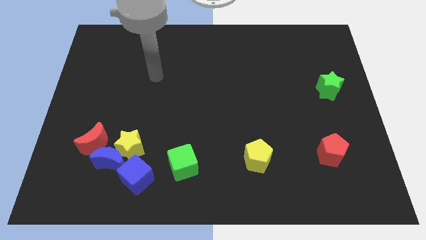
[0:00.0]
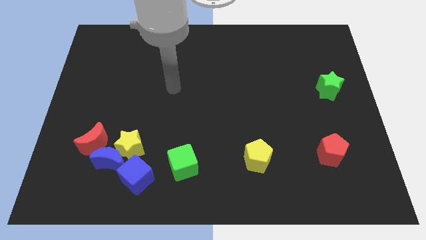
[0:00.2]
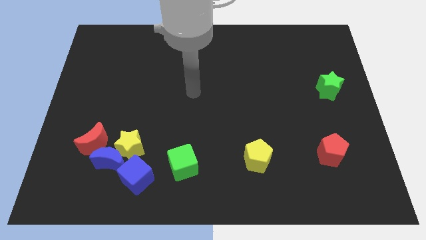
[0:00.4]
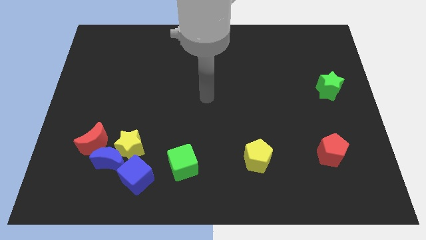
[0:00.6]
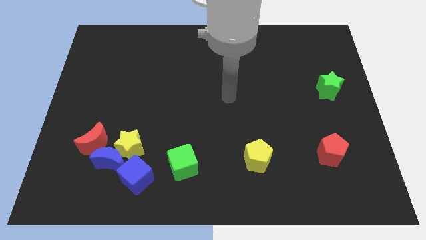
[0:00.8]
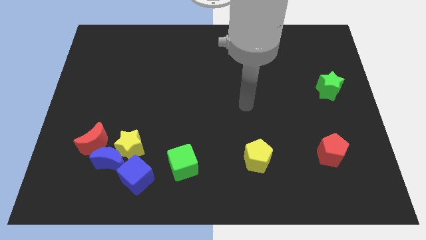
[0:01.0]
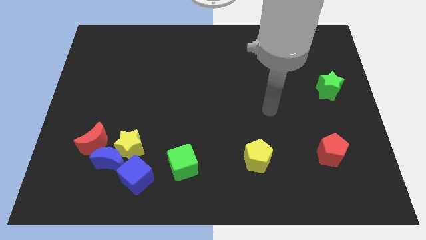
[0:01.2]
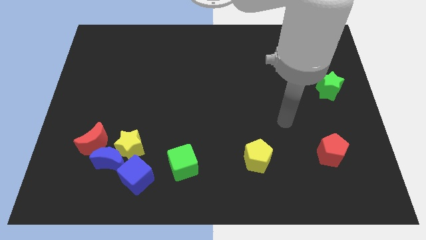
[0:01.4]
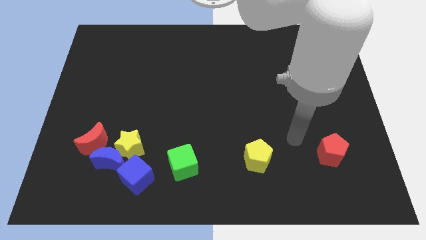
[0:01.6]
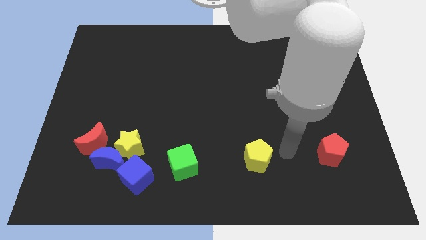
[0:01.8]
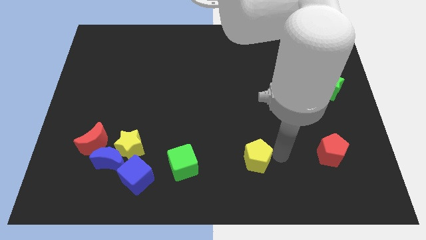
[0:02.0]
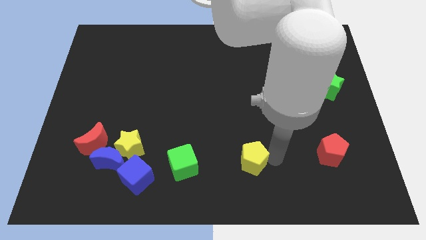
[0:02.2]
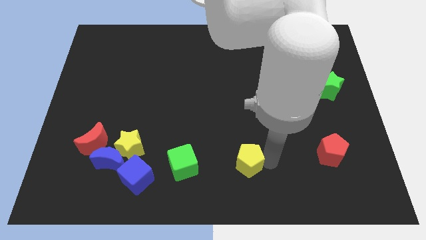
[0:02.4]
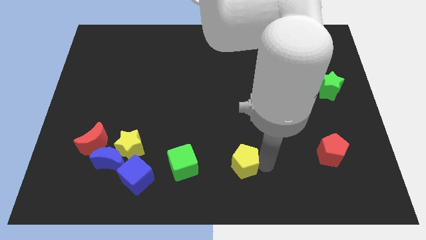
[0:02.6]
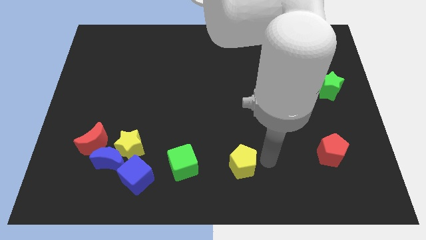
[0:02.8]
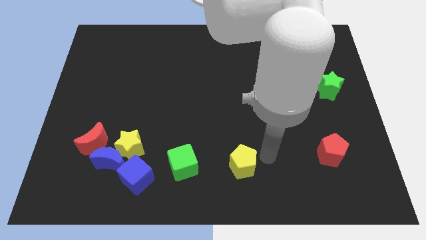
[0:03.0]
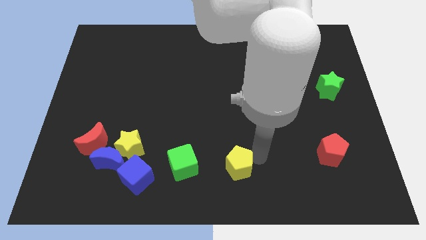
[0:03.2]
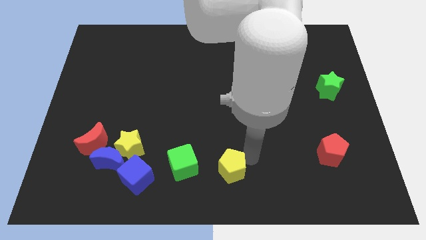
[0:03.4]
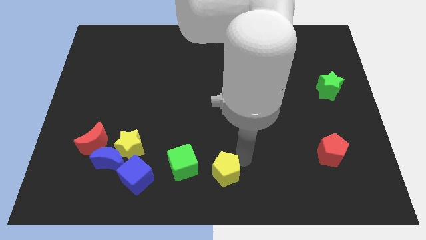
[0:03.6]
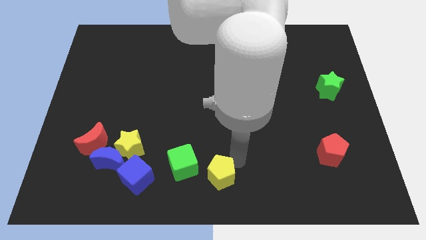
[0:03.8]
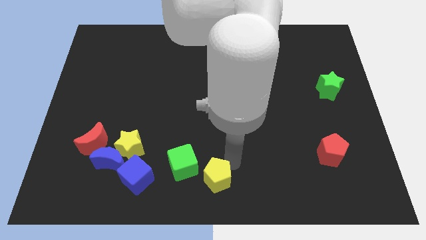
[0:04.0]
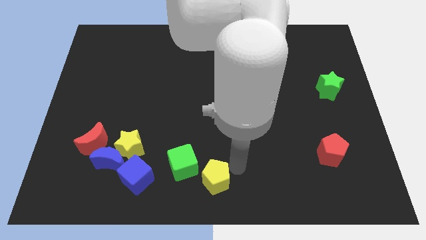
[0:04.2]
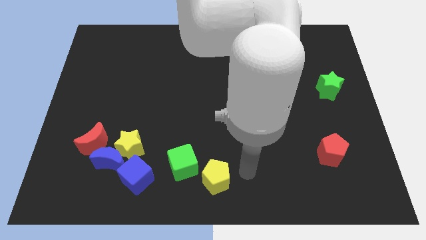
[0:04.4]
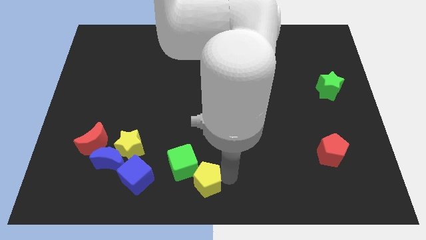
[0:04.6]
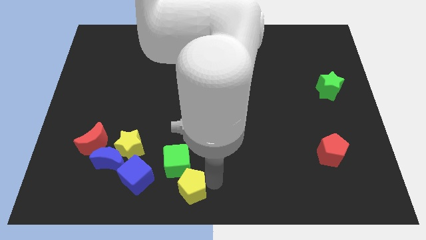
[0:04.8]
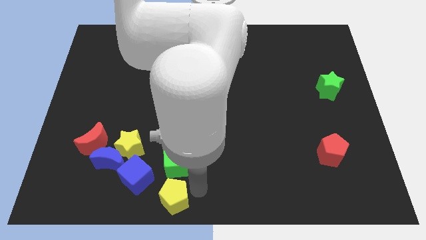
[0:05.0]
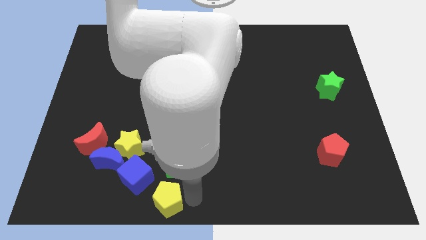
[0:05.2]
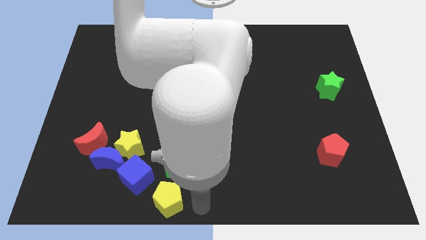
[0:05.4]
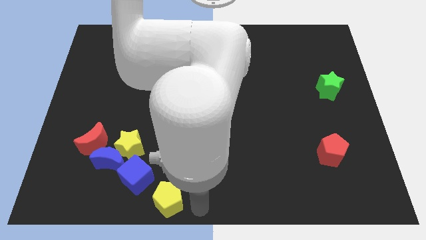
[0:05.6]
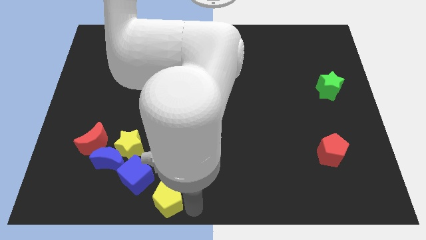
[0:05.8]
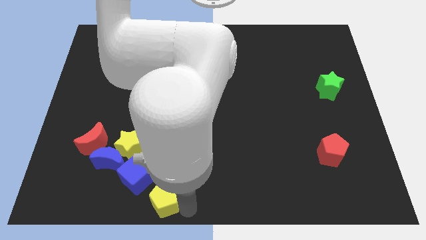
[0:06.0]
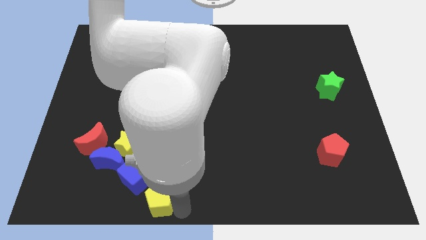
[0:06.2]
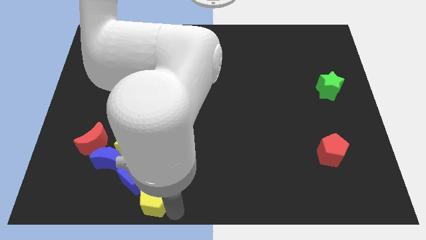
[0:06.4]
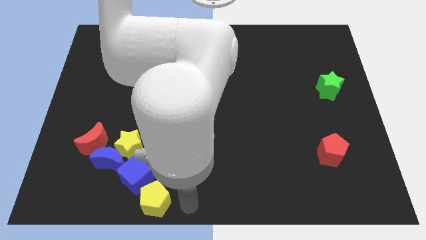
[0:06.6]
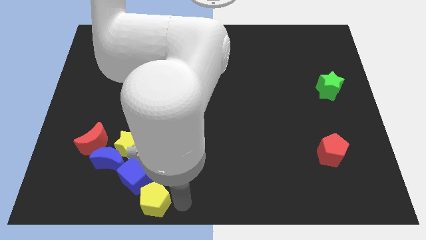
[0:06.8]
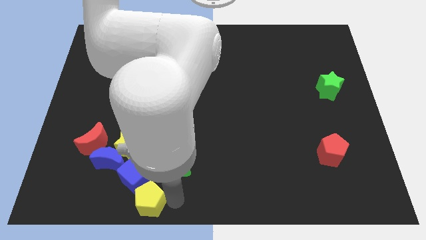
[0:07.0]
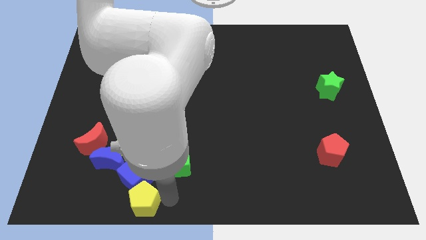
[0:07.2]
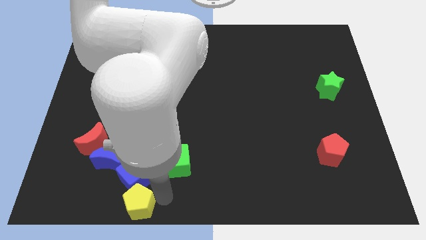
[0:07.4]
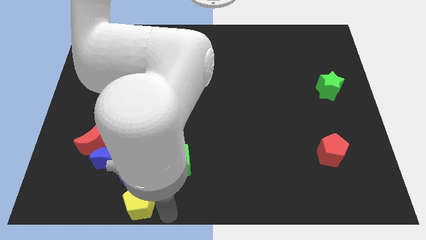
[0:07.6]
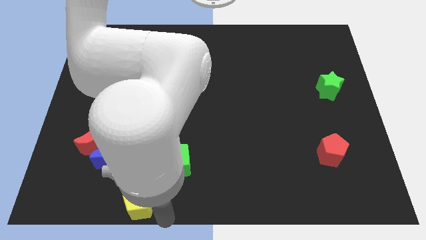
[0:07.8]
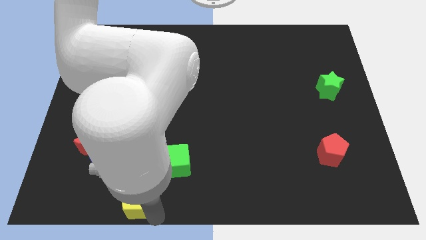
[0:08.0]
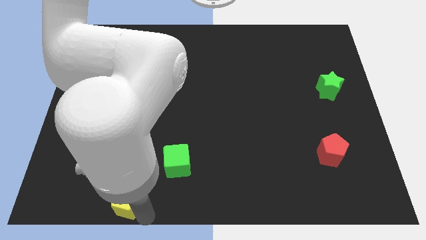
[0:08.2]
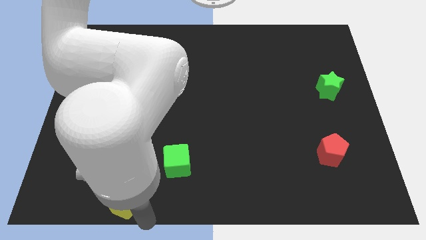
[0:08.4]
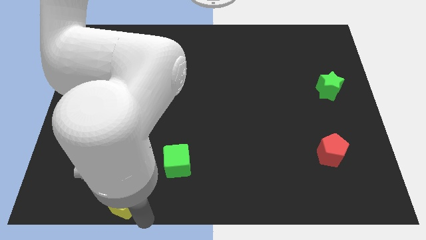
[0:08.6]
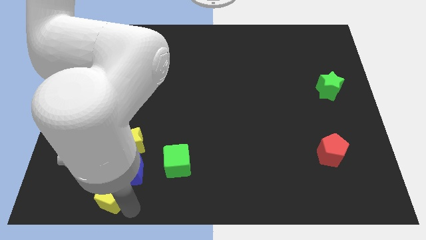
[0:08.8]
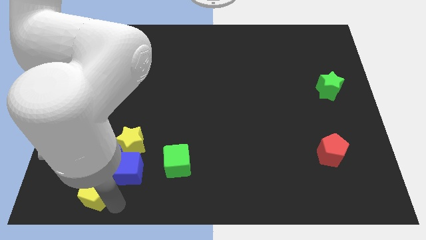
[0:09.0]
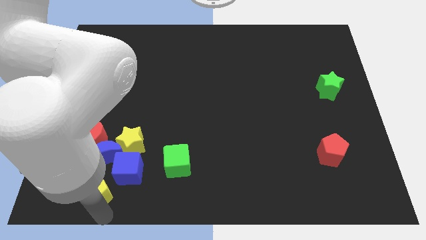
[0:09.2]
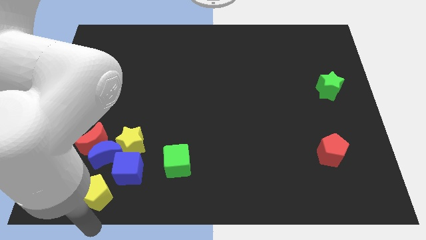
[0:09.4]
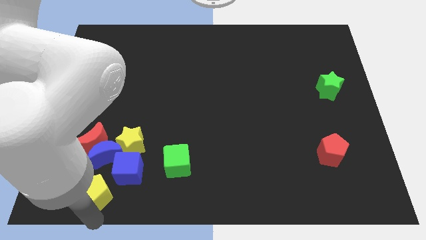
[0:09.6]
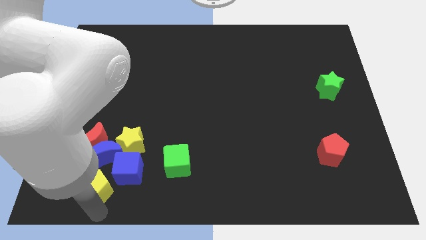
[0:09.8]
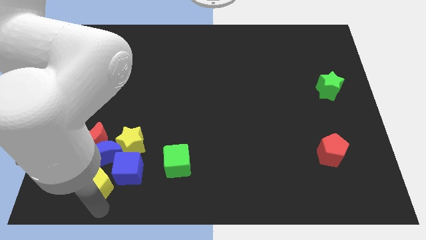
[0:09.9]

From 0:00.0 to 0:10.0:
move the yellow pentagon diagonally down and to the left of the yellow star

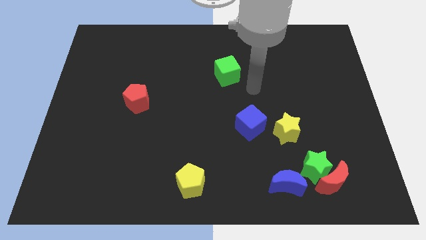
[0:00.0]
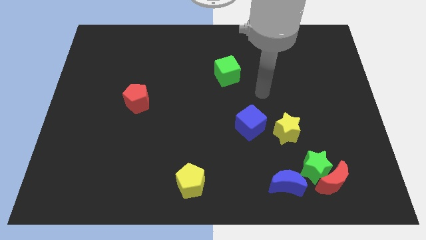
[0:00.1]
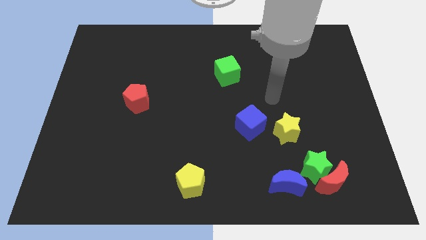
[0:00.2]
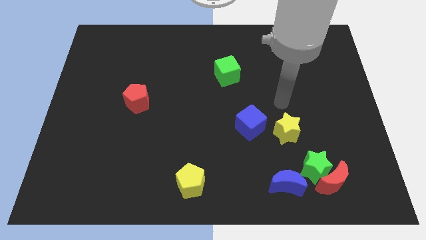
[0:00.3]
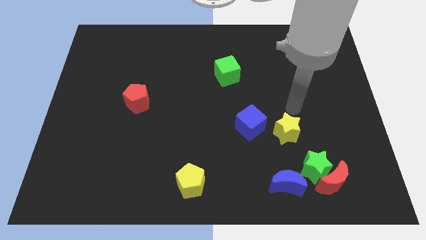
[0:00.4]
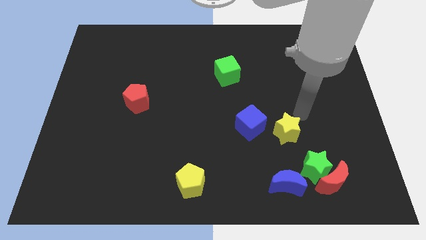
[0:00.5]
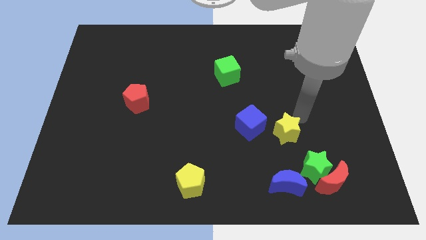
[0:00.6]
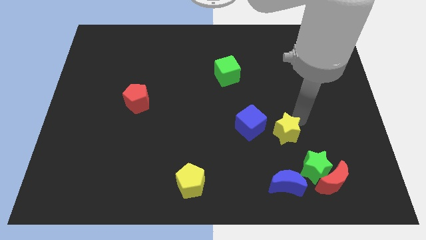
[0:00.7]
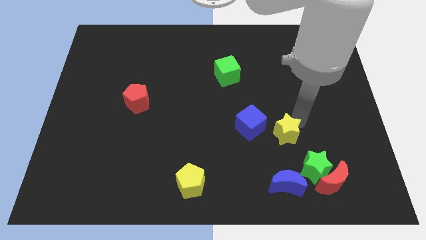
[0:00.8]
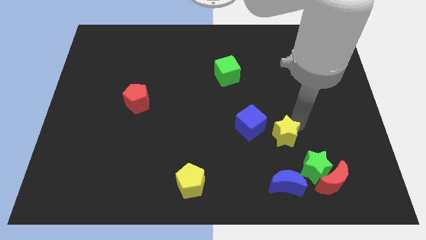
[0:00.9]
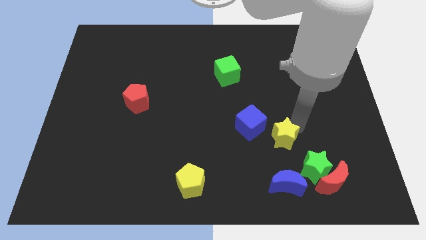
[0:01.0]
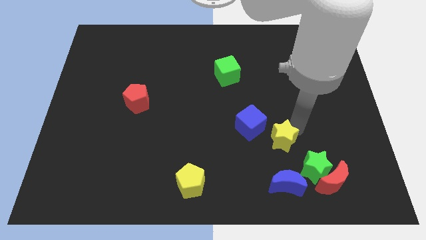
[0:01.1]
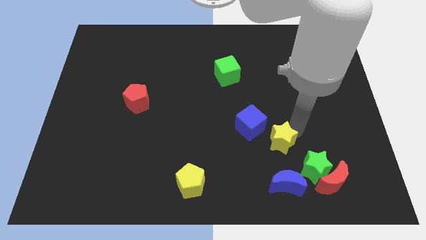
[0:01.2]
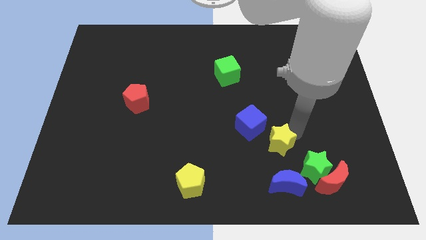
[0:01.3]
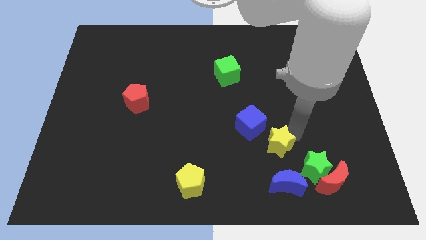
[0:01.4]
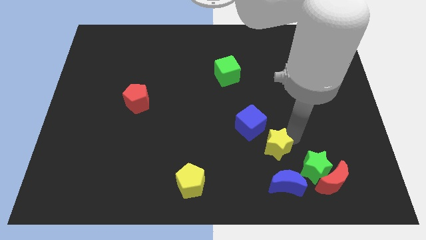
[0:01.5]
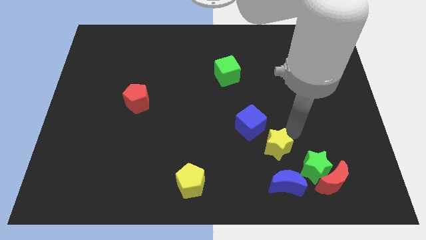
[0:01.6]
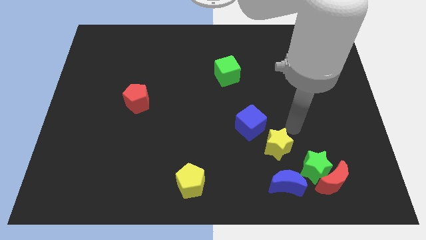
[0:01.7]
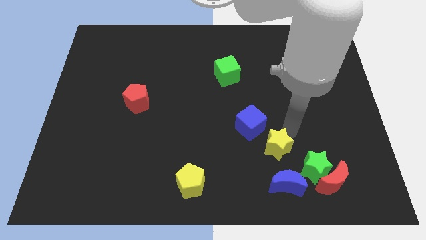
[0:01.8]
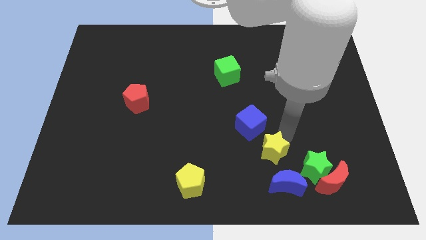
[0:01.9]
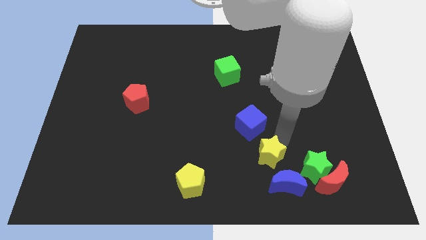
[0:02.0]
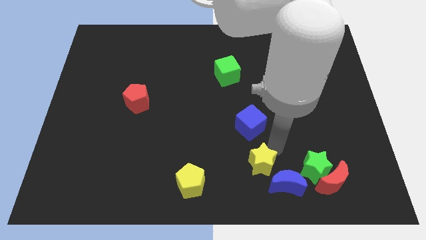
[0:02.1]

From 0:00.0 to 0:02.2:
put the yellow star just left of the blue moon

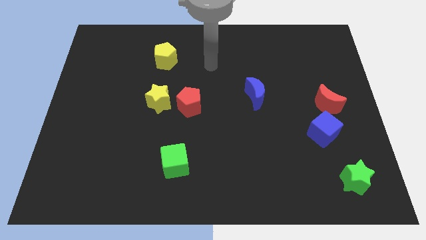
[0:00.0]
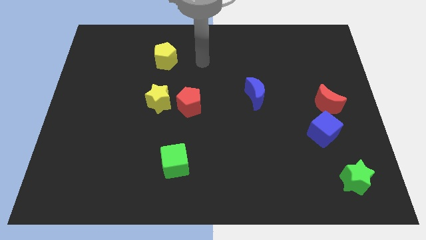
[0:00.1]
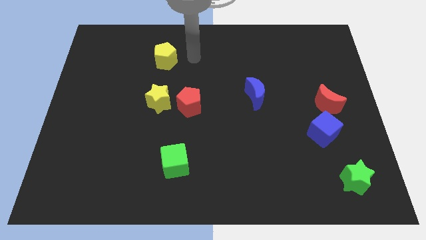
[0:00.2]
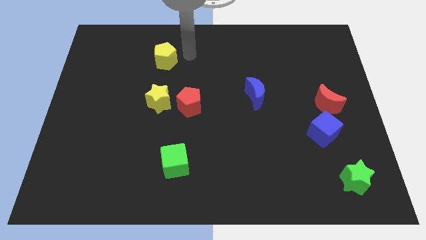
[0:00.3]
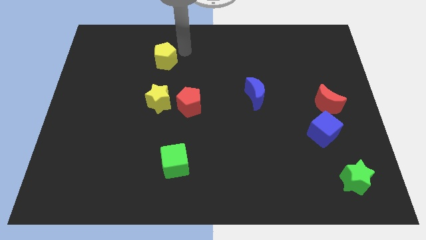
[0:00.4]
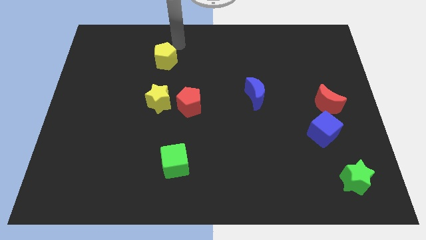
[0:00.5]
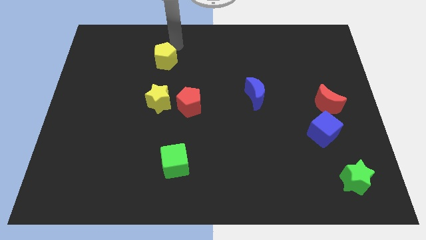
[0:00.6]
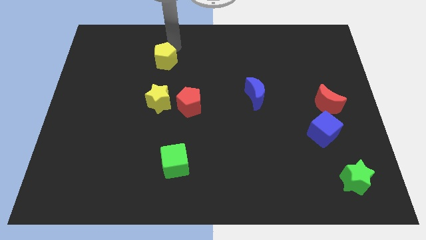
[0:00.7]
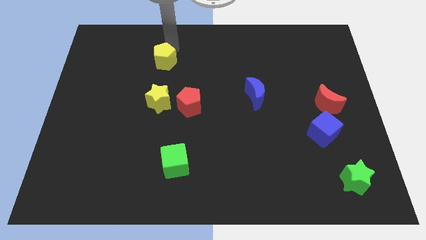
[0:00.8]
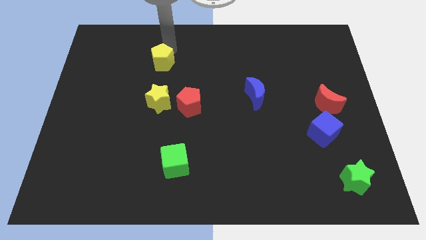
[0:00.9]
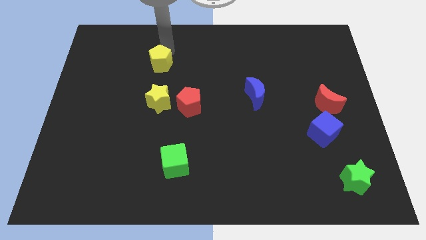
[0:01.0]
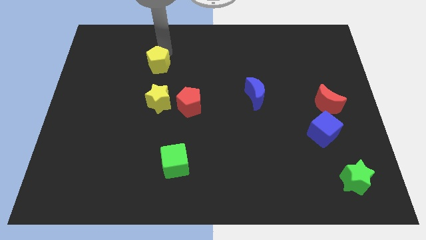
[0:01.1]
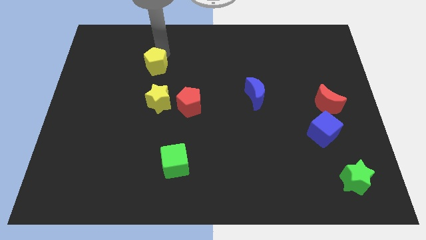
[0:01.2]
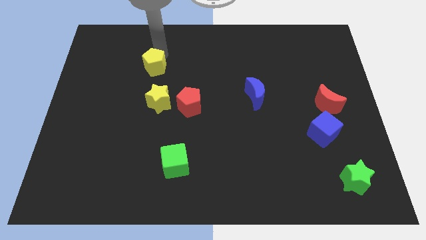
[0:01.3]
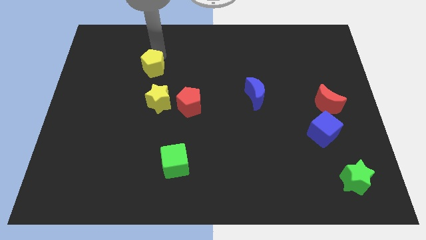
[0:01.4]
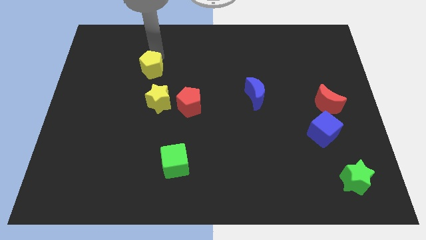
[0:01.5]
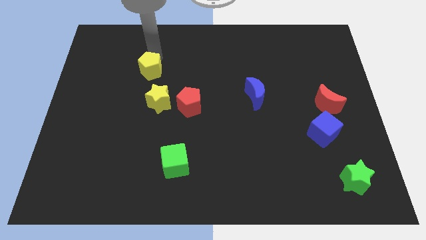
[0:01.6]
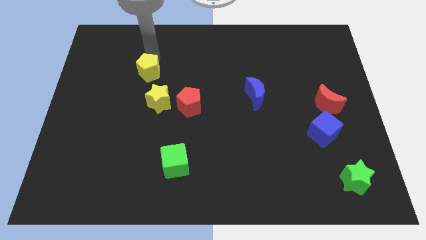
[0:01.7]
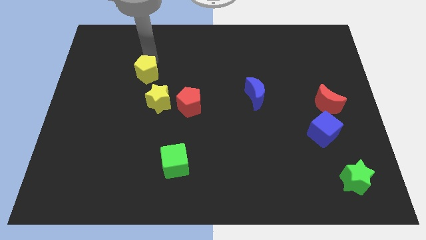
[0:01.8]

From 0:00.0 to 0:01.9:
move the yellow pentagon to the top left of the yellow star
